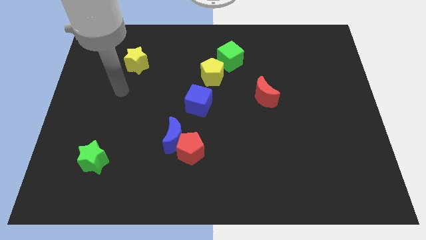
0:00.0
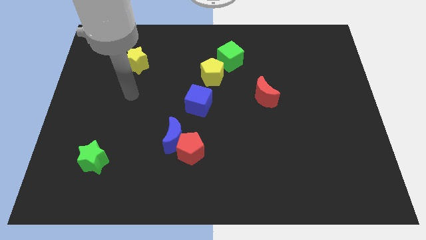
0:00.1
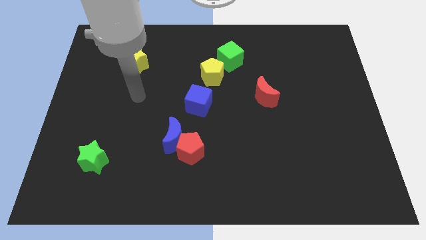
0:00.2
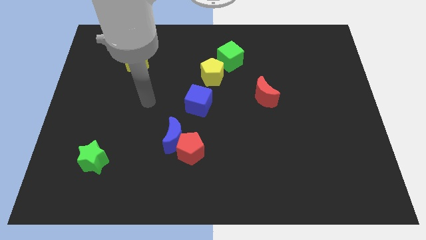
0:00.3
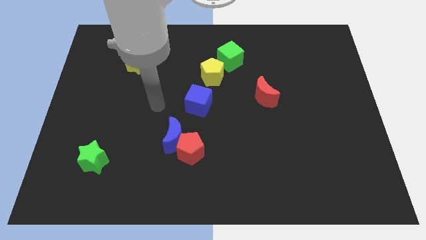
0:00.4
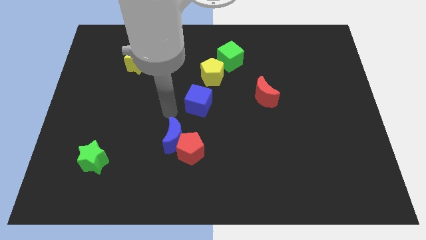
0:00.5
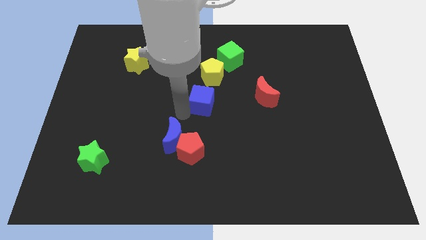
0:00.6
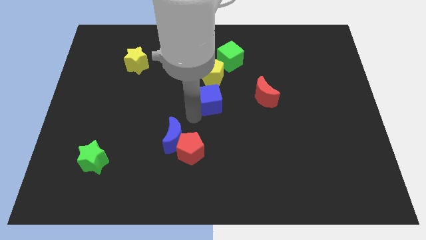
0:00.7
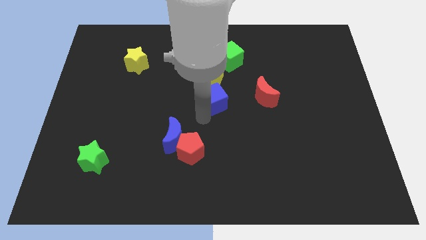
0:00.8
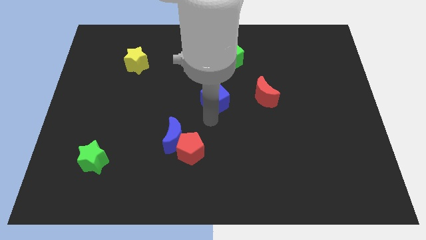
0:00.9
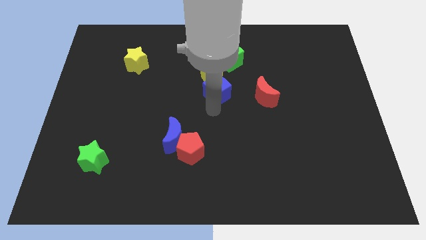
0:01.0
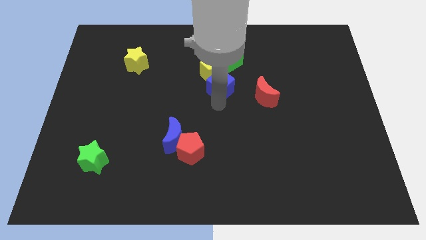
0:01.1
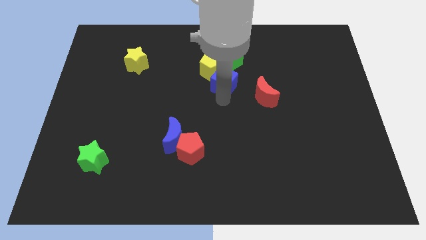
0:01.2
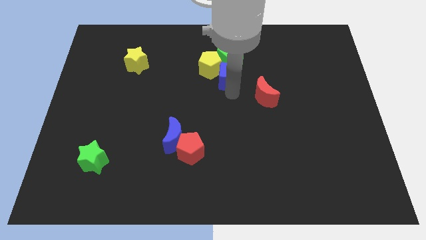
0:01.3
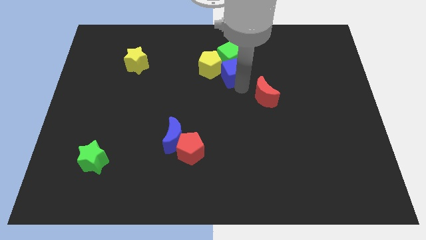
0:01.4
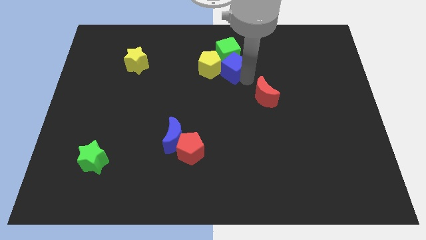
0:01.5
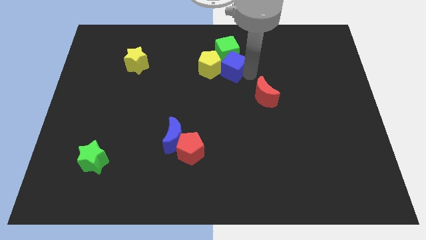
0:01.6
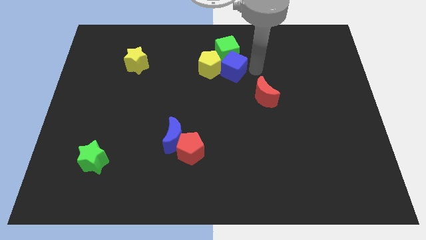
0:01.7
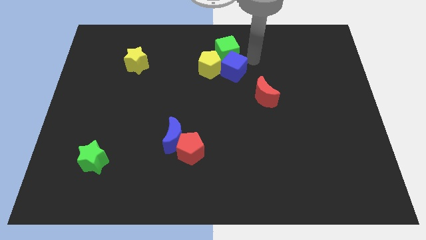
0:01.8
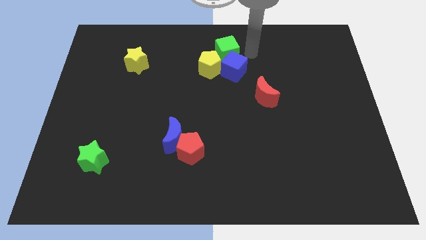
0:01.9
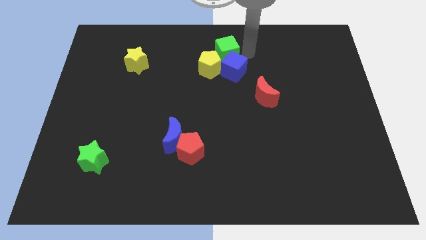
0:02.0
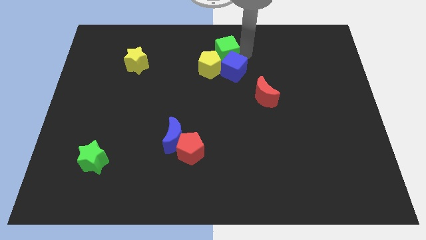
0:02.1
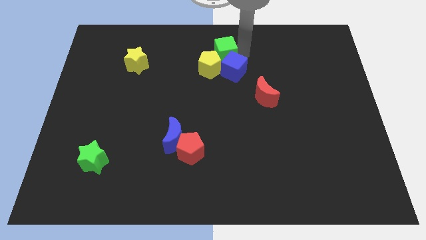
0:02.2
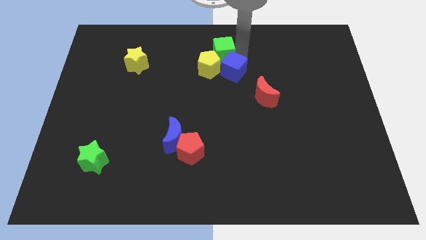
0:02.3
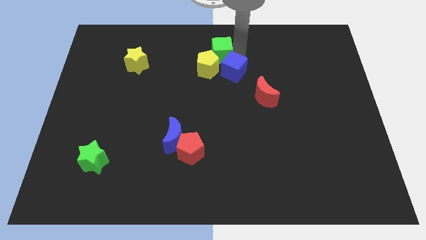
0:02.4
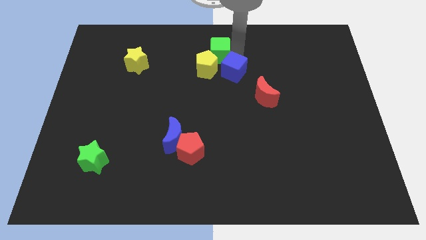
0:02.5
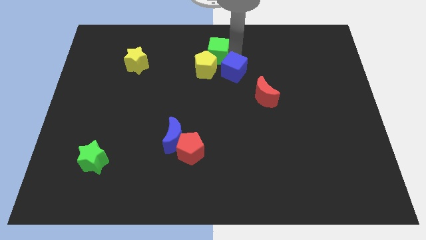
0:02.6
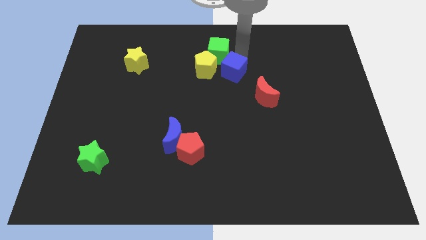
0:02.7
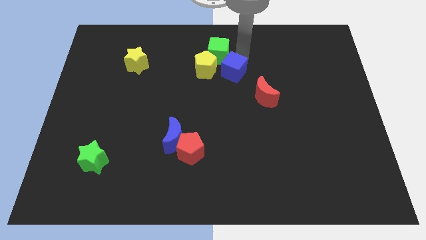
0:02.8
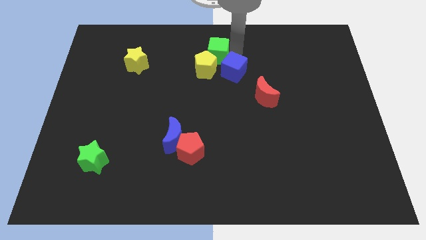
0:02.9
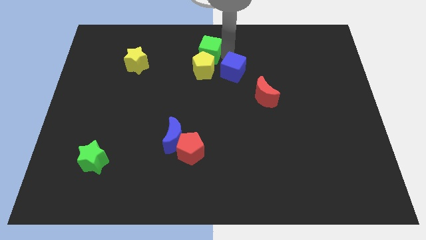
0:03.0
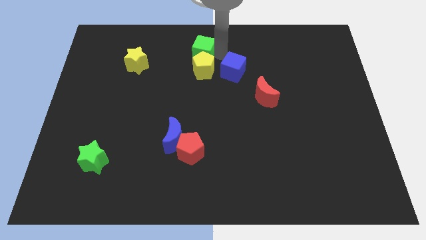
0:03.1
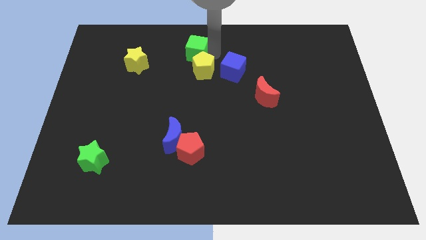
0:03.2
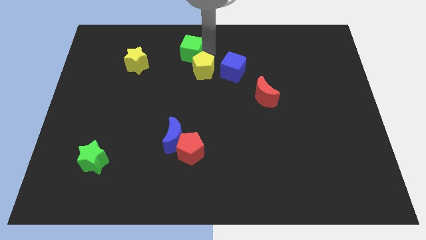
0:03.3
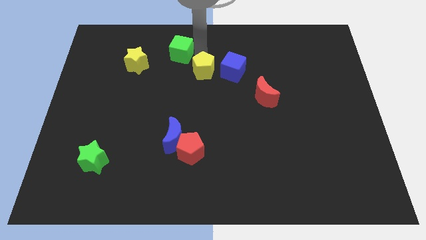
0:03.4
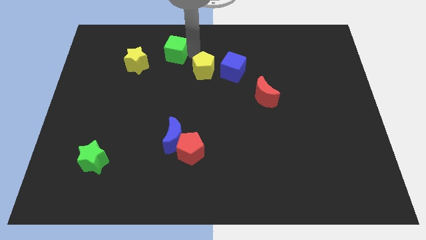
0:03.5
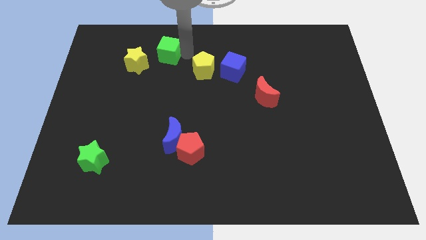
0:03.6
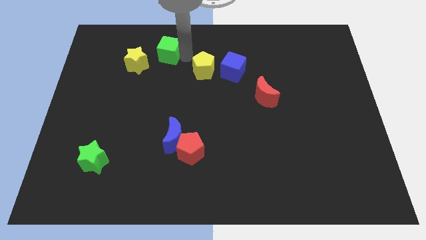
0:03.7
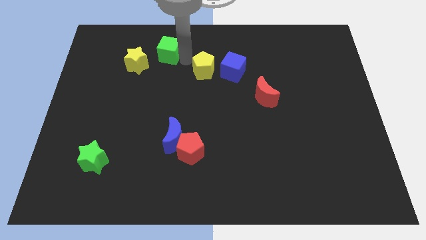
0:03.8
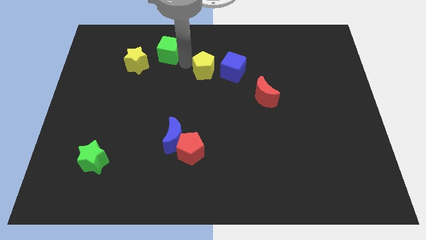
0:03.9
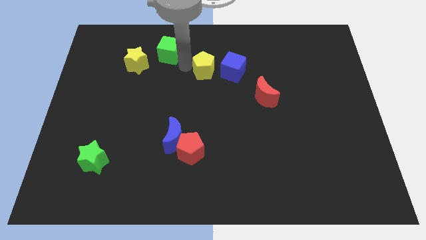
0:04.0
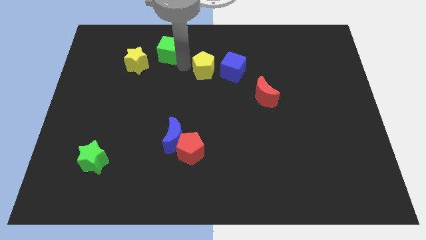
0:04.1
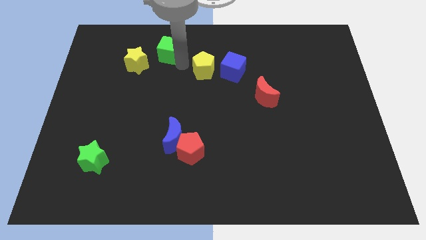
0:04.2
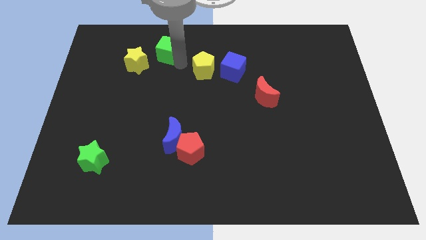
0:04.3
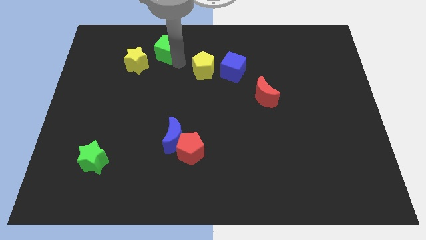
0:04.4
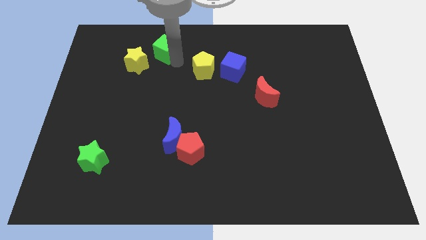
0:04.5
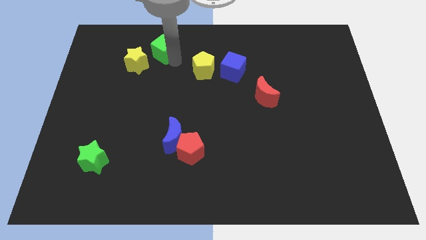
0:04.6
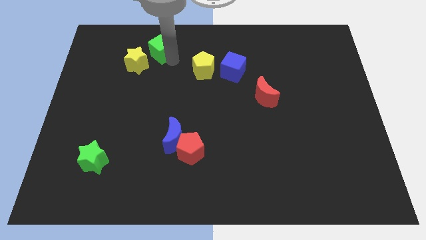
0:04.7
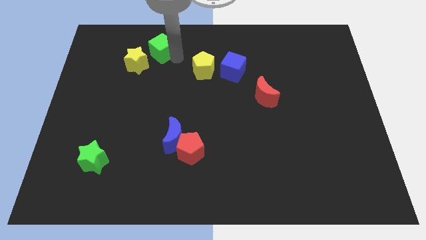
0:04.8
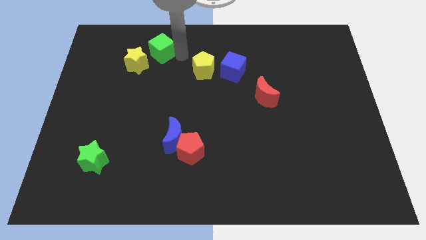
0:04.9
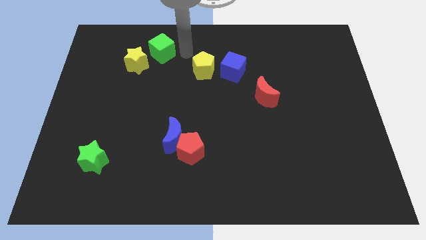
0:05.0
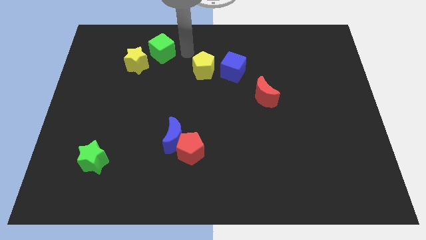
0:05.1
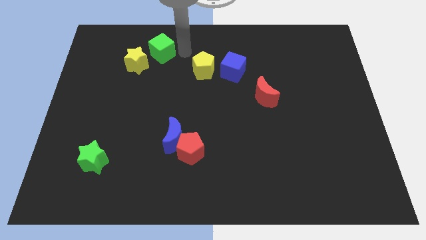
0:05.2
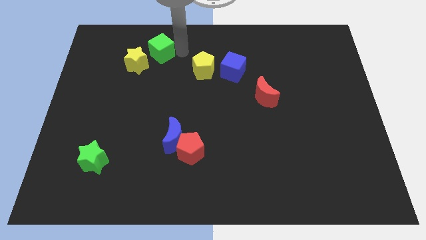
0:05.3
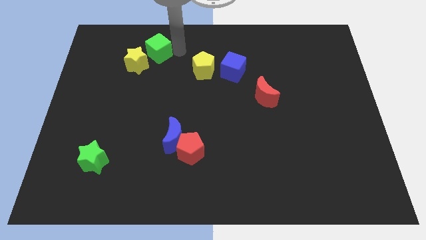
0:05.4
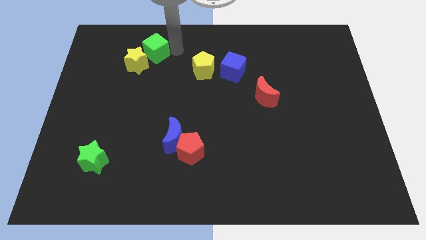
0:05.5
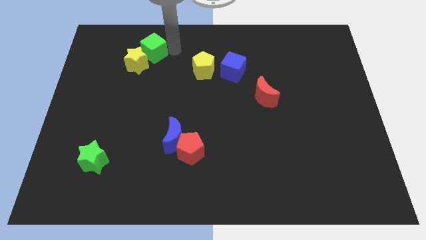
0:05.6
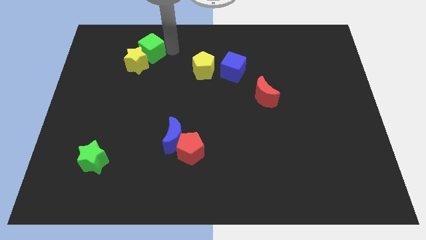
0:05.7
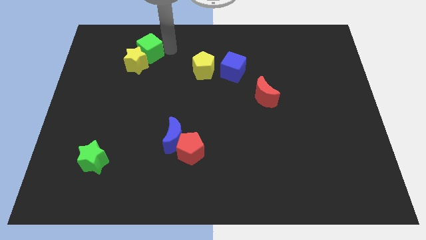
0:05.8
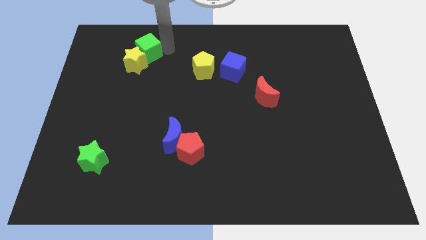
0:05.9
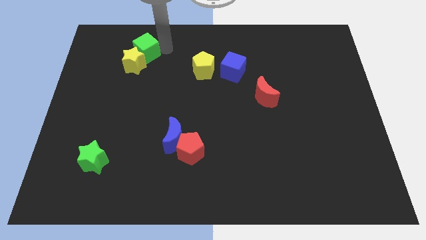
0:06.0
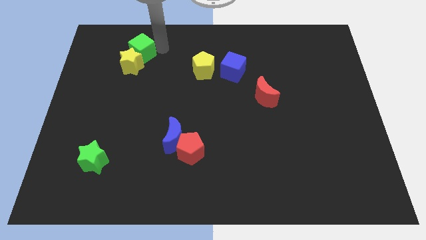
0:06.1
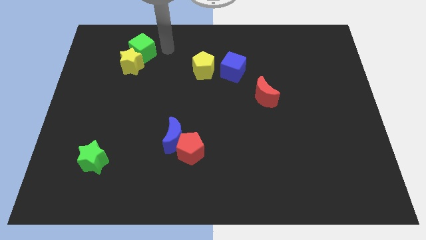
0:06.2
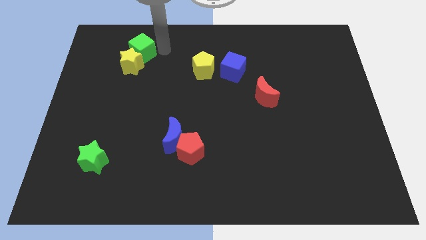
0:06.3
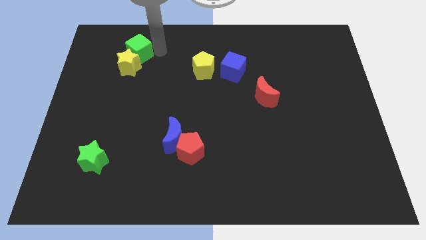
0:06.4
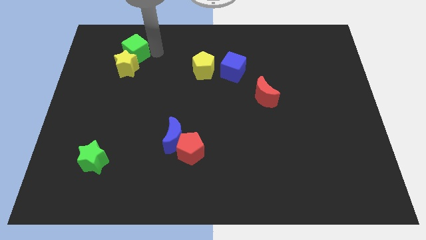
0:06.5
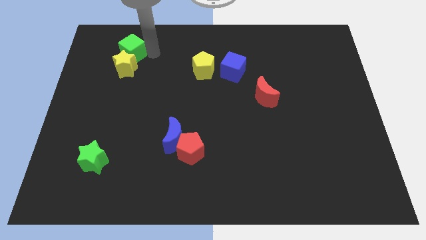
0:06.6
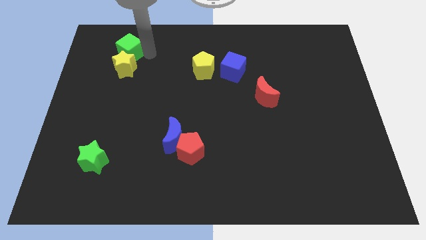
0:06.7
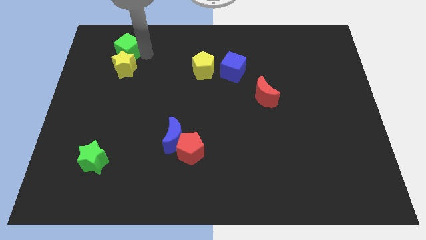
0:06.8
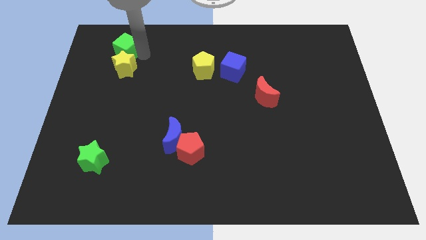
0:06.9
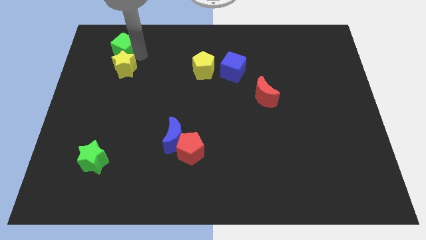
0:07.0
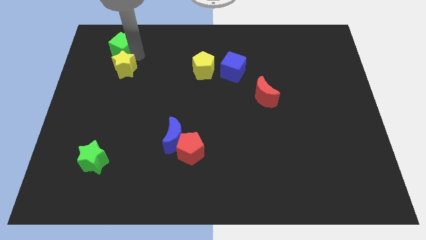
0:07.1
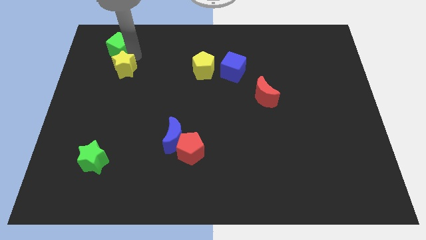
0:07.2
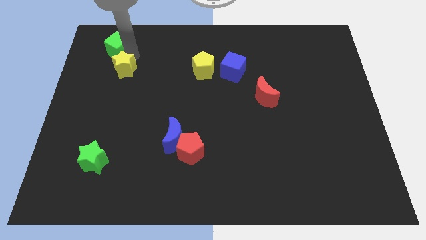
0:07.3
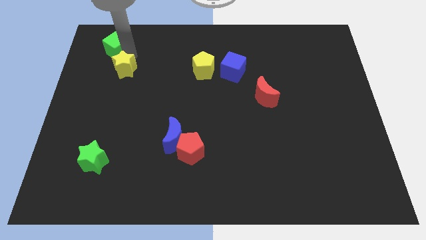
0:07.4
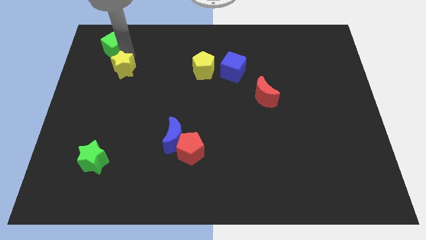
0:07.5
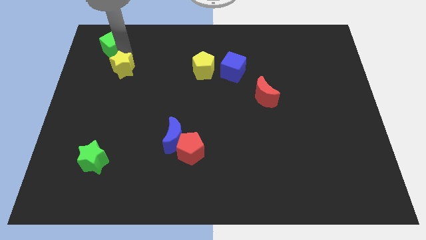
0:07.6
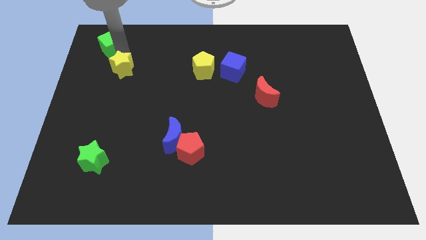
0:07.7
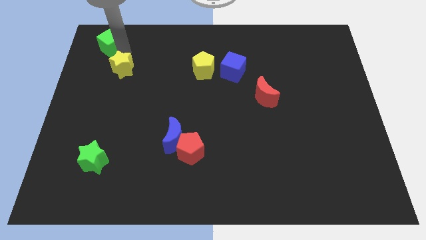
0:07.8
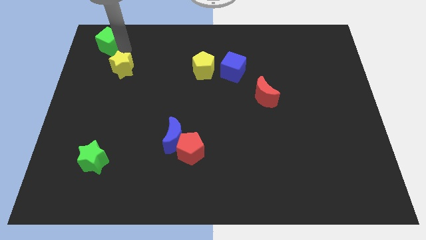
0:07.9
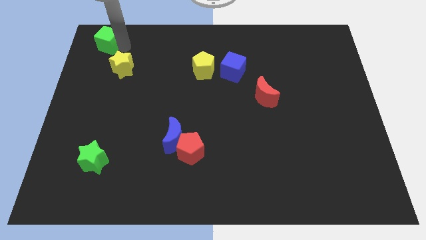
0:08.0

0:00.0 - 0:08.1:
push the green cube to the top left corner
